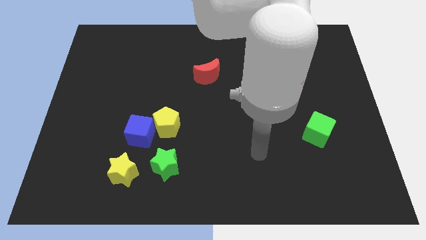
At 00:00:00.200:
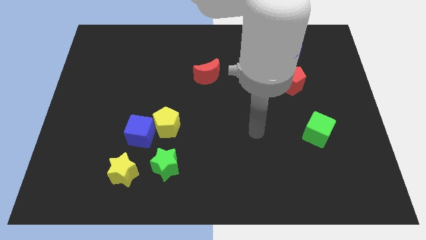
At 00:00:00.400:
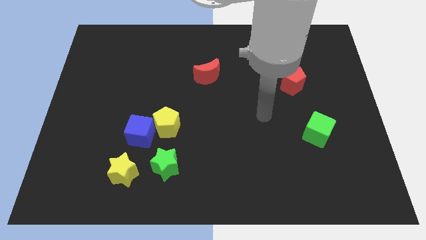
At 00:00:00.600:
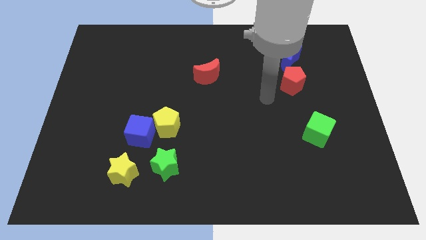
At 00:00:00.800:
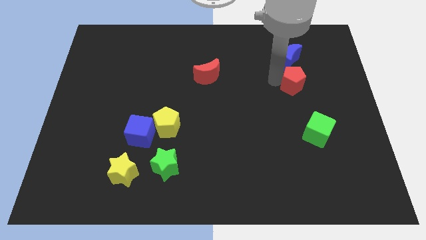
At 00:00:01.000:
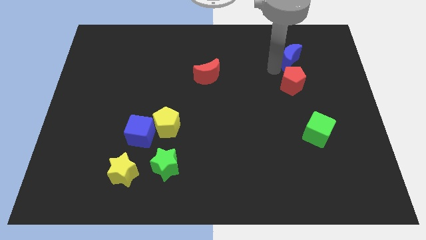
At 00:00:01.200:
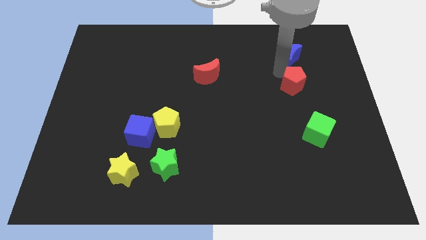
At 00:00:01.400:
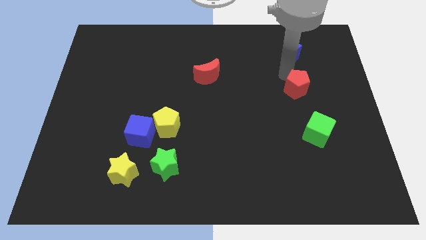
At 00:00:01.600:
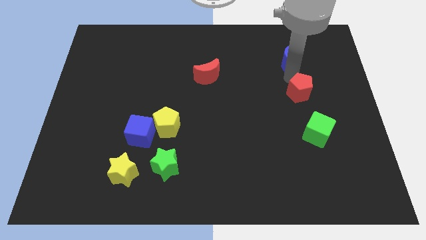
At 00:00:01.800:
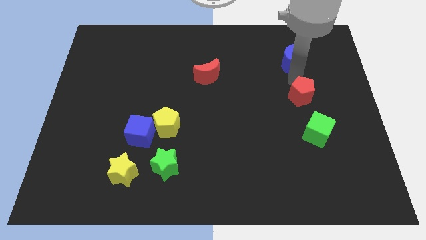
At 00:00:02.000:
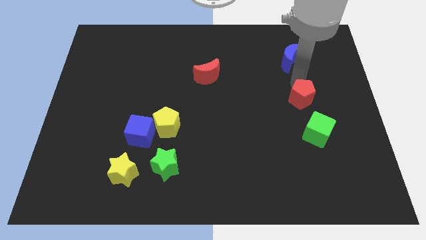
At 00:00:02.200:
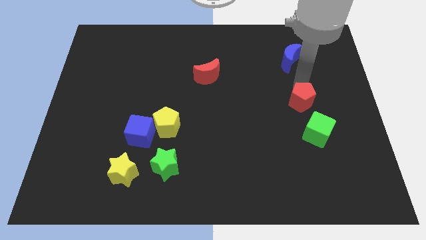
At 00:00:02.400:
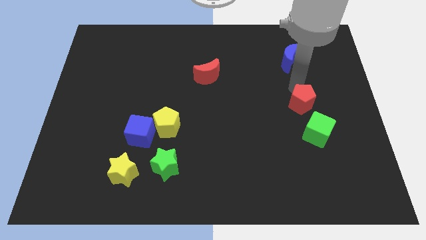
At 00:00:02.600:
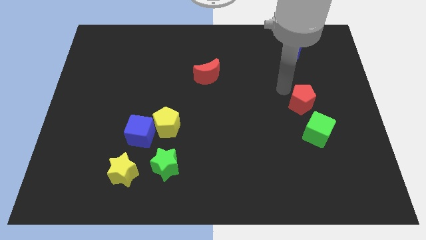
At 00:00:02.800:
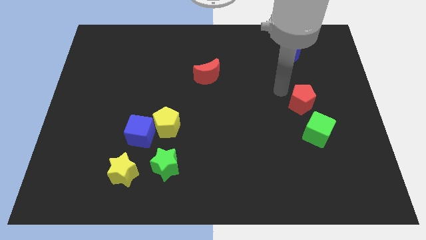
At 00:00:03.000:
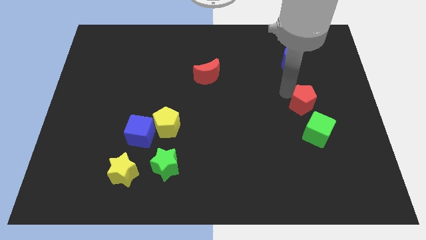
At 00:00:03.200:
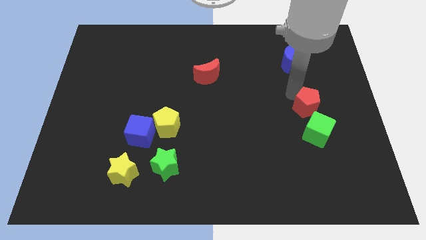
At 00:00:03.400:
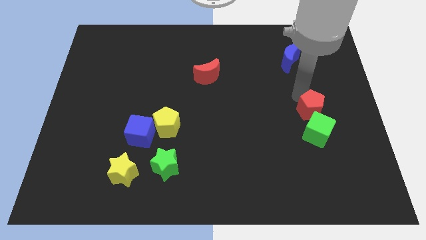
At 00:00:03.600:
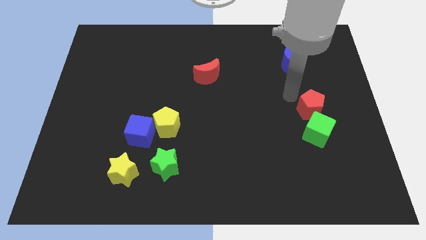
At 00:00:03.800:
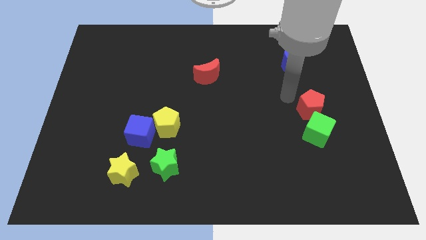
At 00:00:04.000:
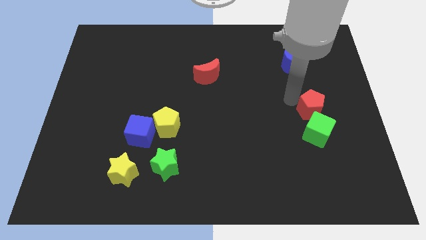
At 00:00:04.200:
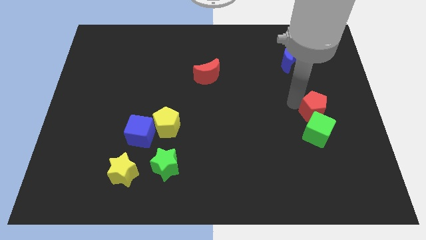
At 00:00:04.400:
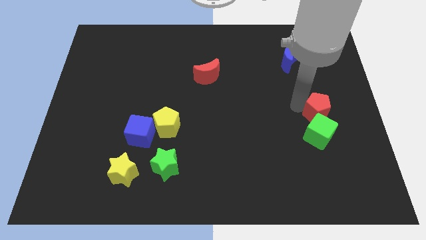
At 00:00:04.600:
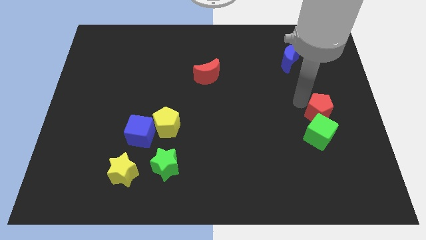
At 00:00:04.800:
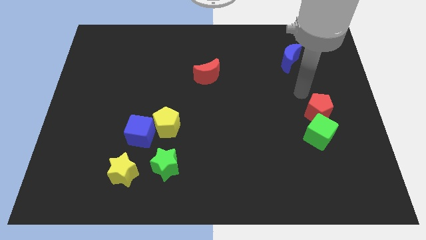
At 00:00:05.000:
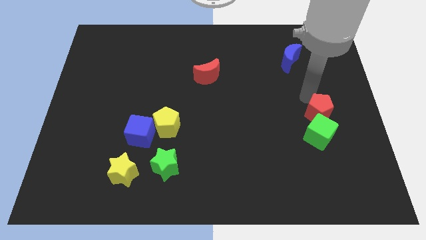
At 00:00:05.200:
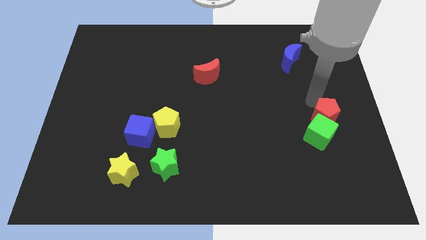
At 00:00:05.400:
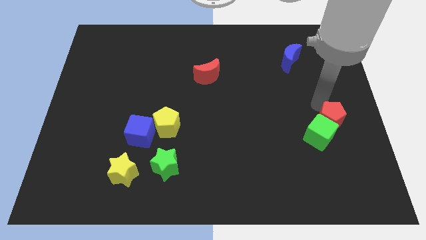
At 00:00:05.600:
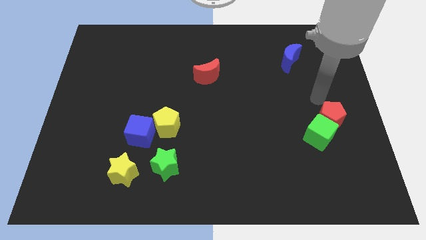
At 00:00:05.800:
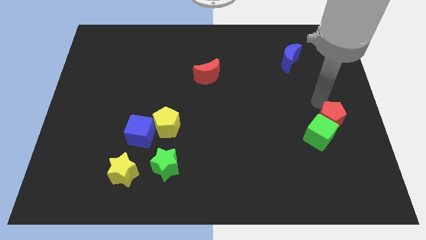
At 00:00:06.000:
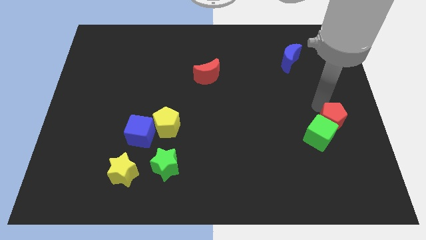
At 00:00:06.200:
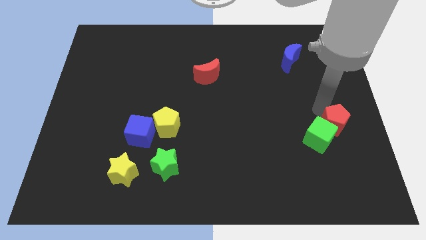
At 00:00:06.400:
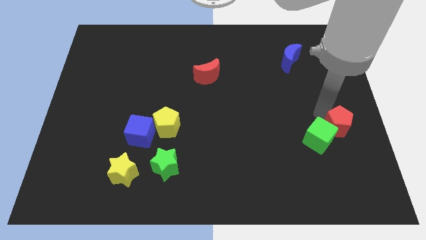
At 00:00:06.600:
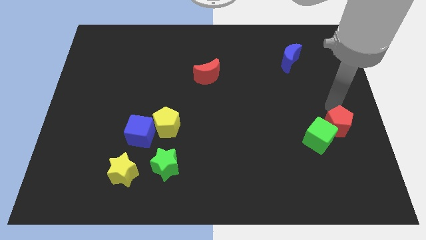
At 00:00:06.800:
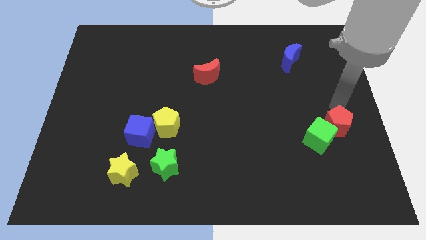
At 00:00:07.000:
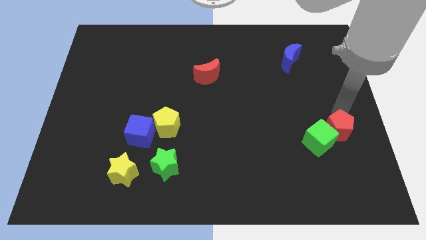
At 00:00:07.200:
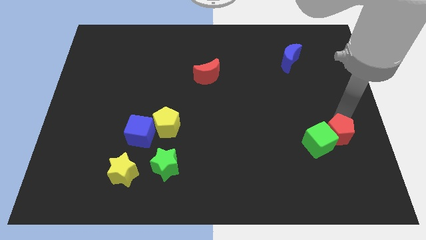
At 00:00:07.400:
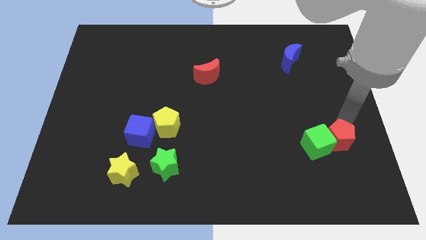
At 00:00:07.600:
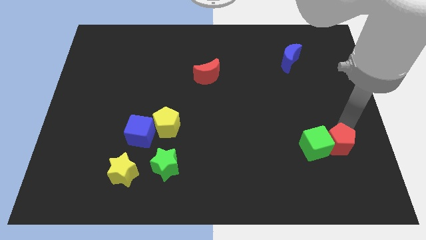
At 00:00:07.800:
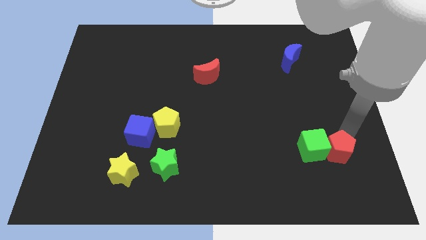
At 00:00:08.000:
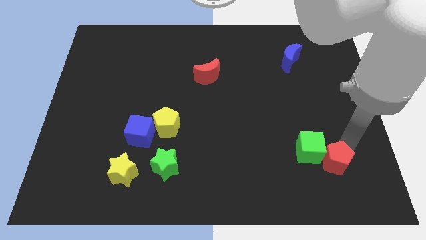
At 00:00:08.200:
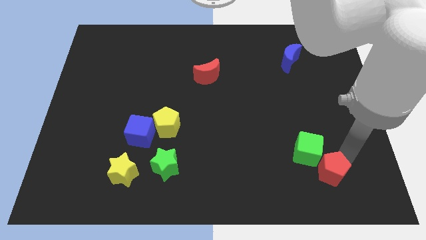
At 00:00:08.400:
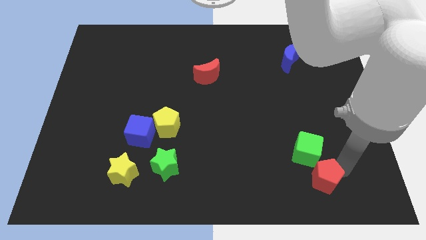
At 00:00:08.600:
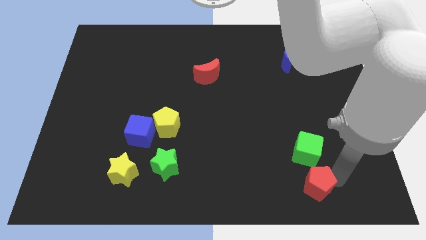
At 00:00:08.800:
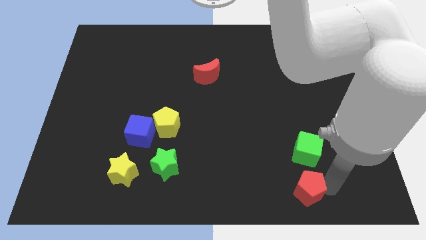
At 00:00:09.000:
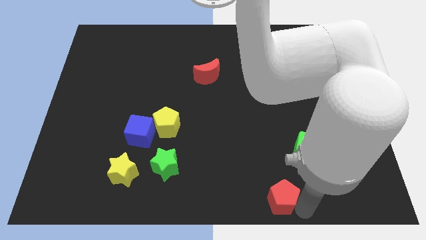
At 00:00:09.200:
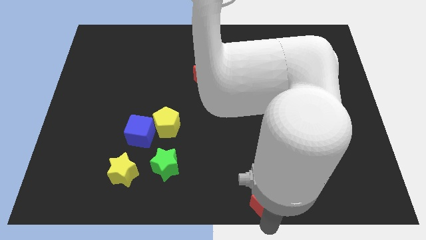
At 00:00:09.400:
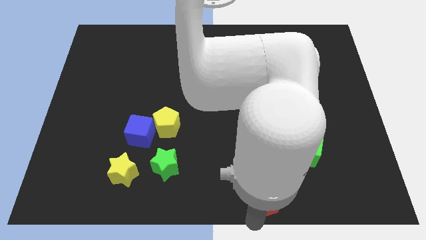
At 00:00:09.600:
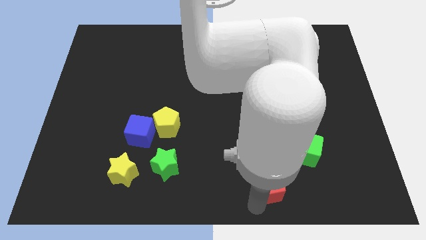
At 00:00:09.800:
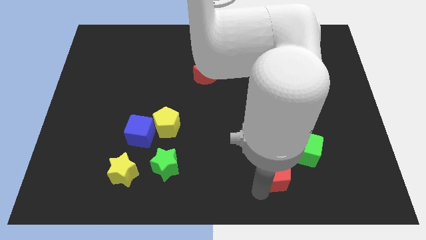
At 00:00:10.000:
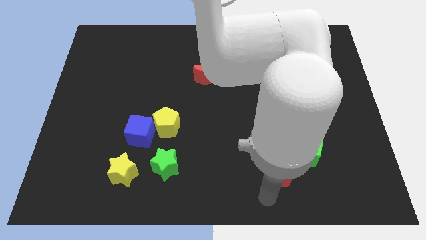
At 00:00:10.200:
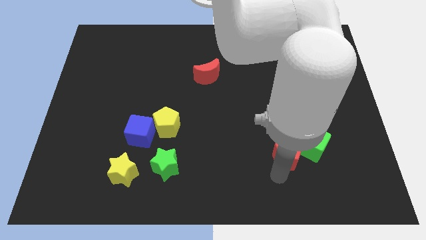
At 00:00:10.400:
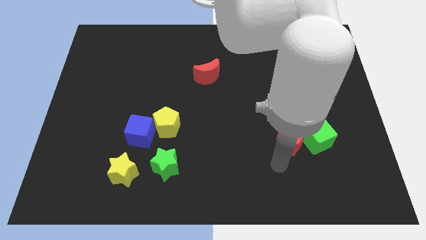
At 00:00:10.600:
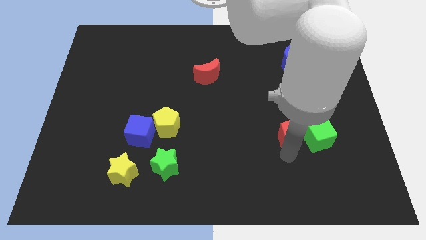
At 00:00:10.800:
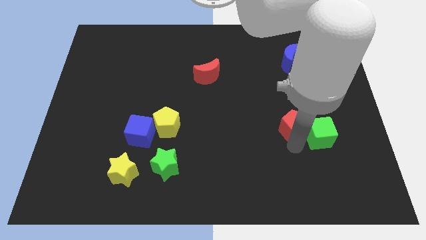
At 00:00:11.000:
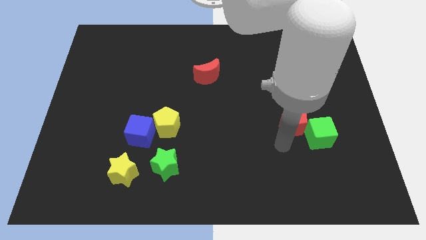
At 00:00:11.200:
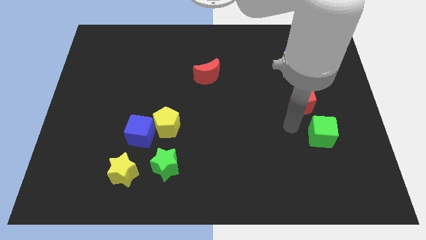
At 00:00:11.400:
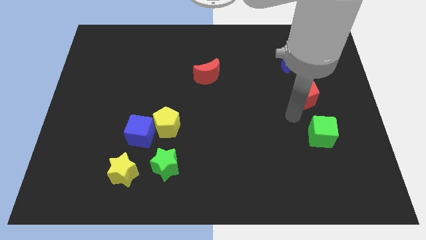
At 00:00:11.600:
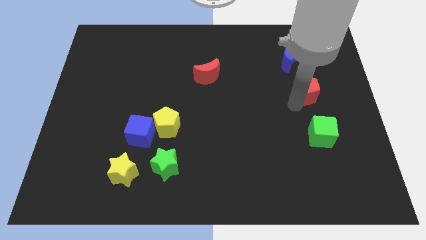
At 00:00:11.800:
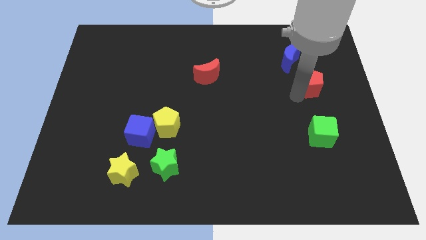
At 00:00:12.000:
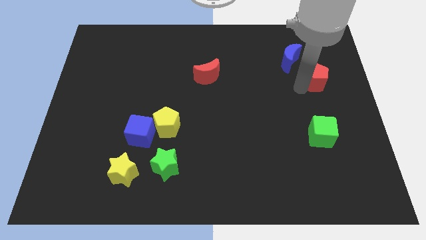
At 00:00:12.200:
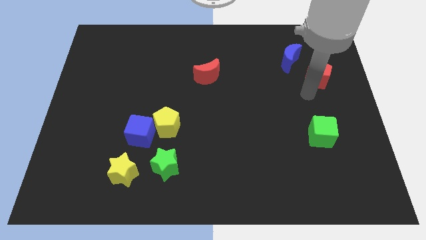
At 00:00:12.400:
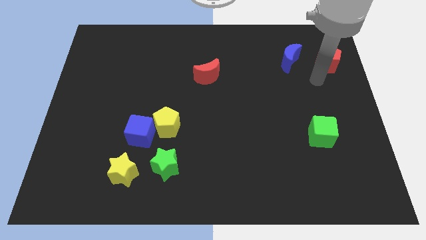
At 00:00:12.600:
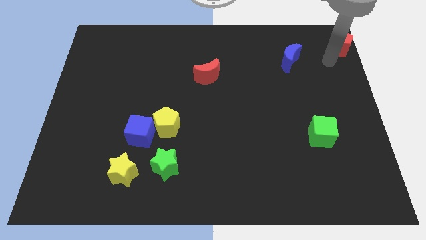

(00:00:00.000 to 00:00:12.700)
put the red pentagon to the top right corner
